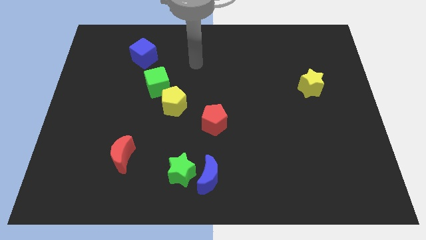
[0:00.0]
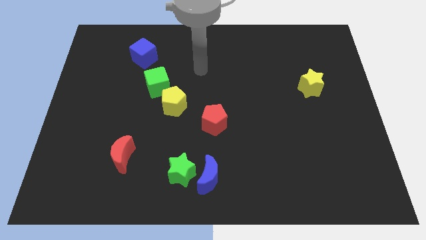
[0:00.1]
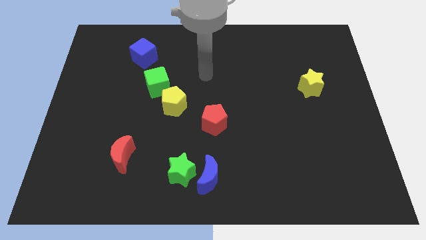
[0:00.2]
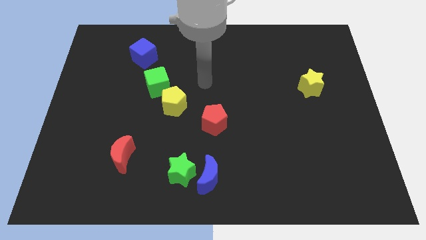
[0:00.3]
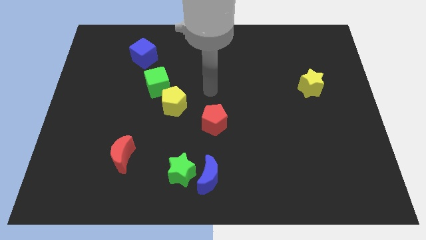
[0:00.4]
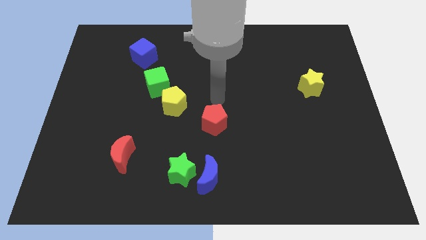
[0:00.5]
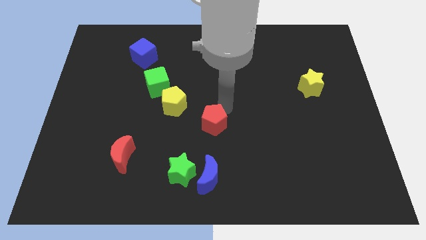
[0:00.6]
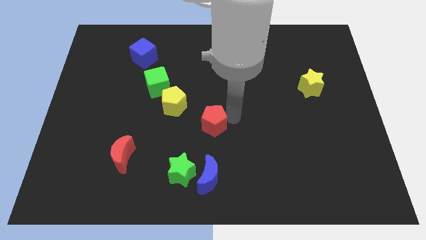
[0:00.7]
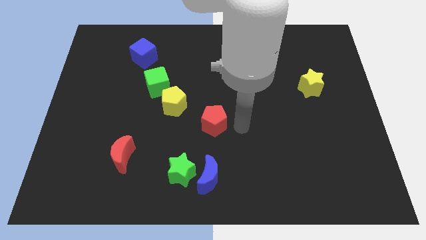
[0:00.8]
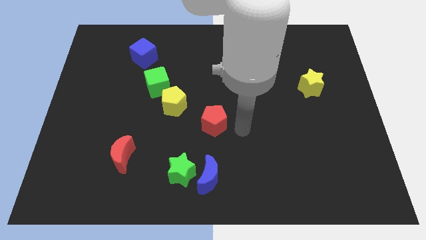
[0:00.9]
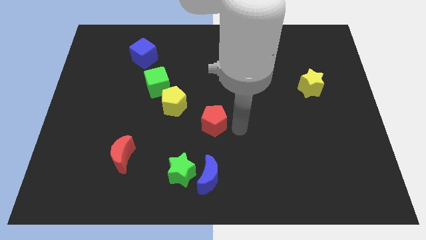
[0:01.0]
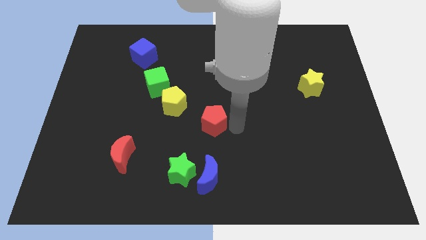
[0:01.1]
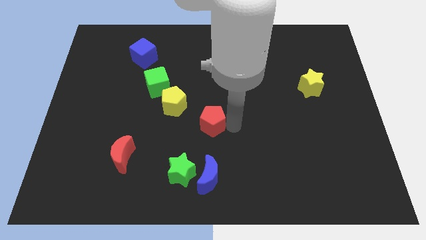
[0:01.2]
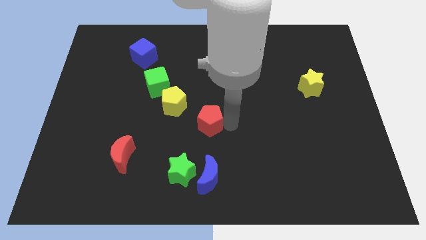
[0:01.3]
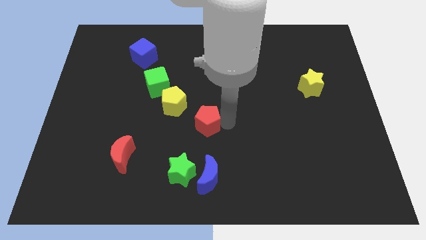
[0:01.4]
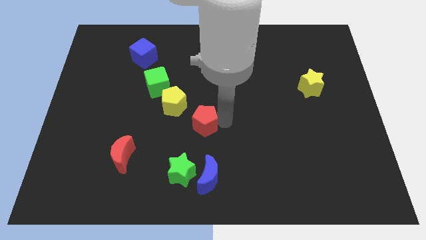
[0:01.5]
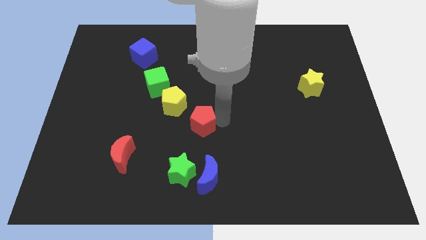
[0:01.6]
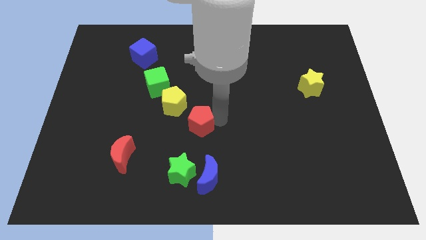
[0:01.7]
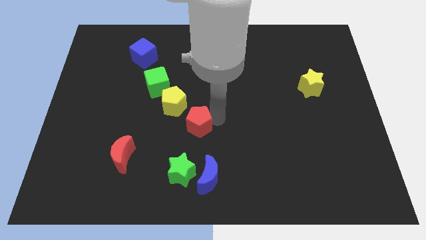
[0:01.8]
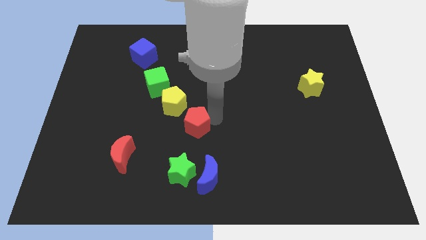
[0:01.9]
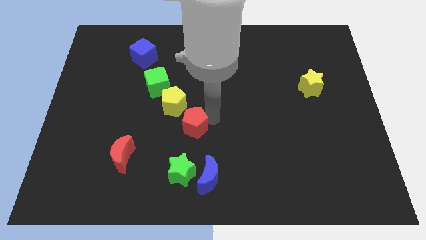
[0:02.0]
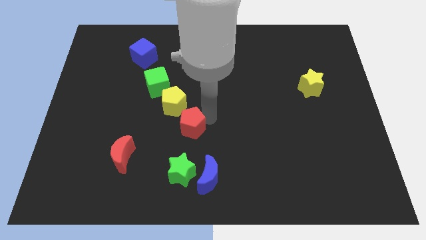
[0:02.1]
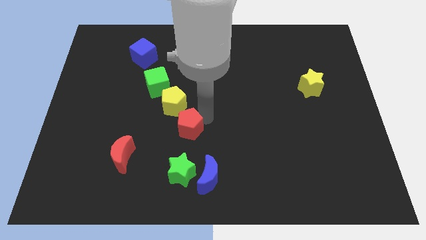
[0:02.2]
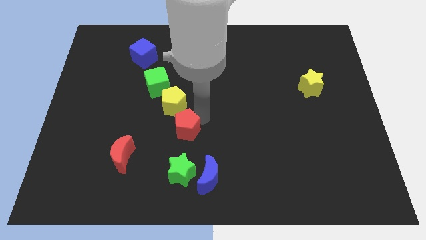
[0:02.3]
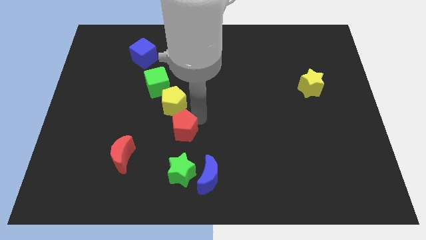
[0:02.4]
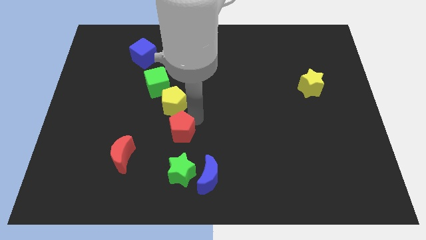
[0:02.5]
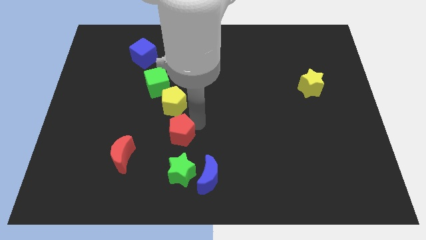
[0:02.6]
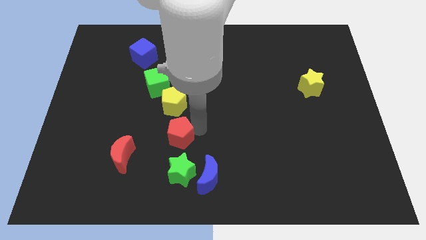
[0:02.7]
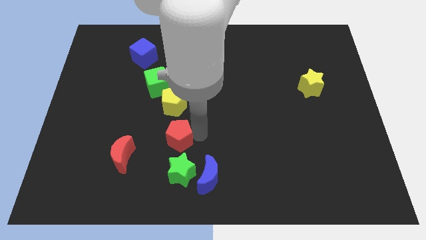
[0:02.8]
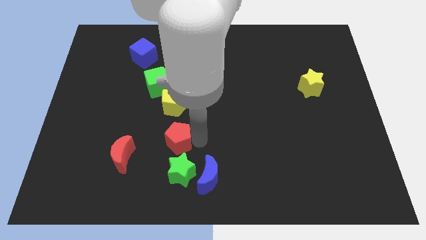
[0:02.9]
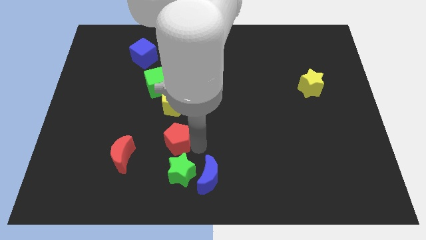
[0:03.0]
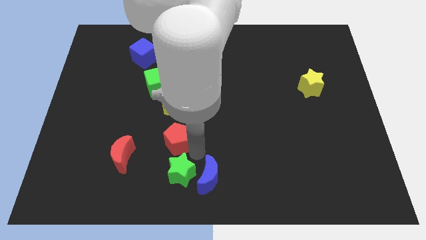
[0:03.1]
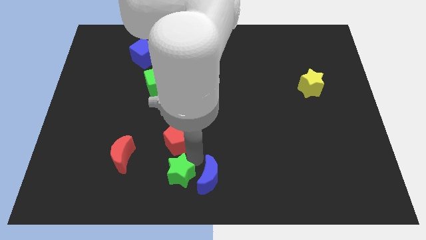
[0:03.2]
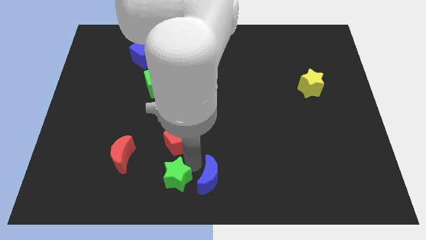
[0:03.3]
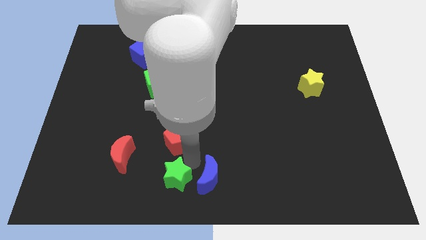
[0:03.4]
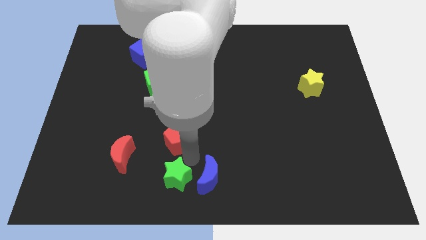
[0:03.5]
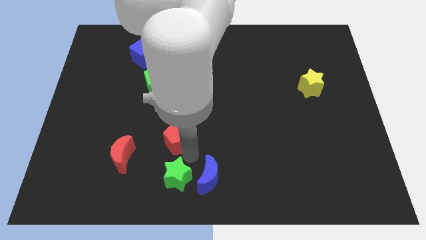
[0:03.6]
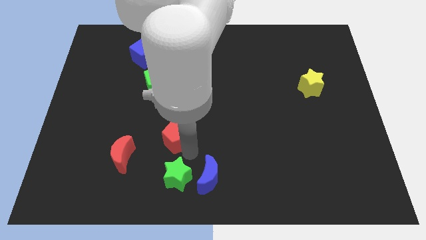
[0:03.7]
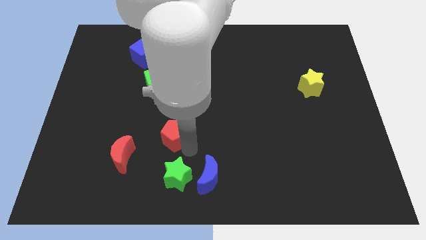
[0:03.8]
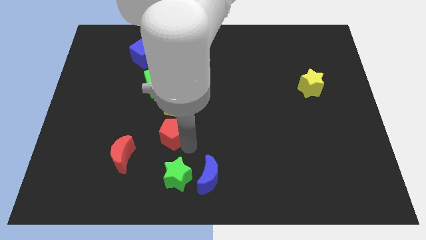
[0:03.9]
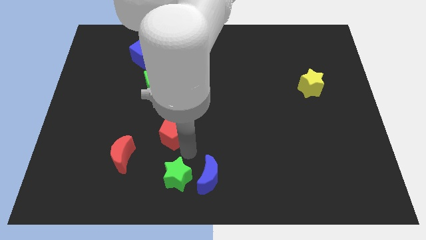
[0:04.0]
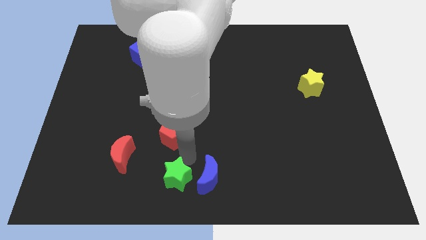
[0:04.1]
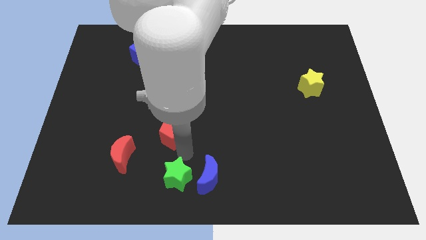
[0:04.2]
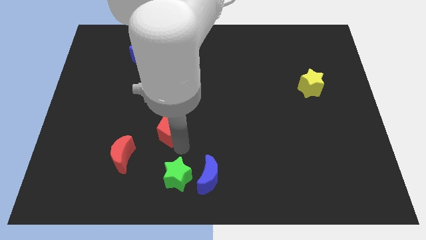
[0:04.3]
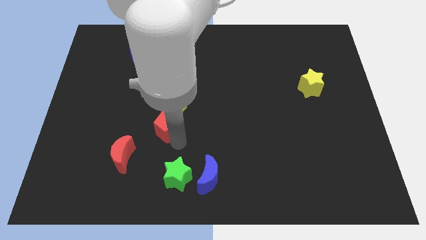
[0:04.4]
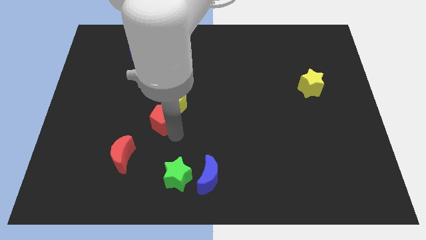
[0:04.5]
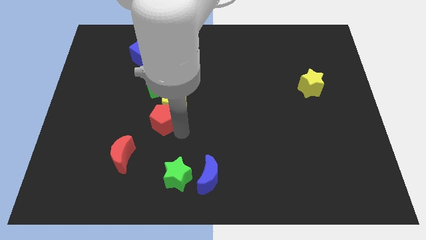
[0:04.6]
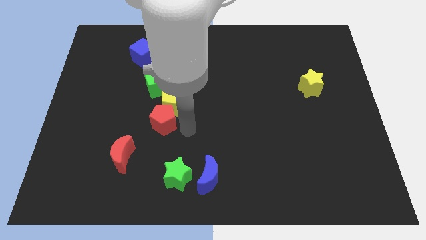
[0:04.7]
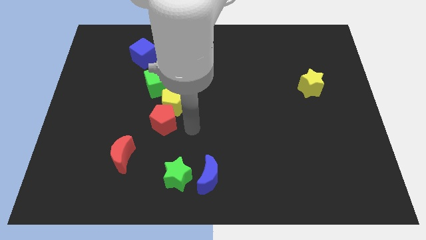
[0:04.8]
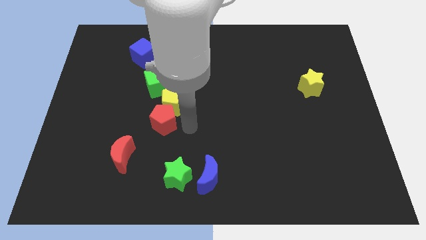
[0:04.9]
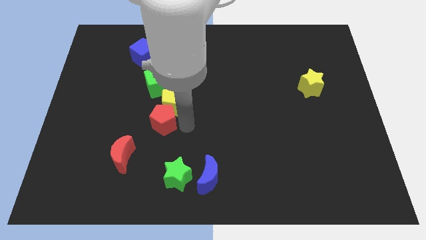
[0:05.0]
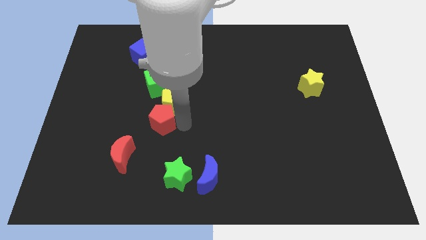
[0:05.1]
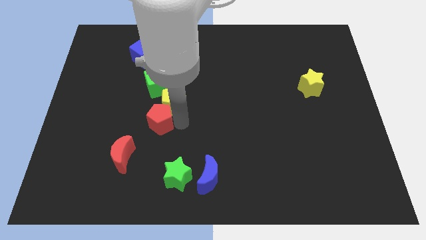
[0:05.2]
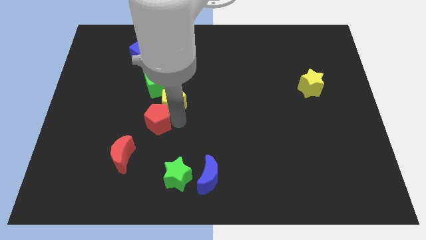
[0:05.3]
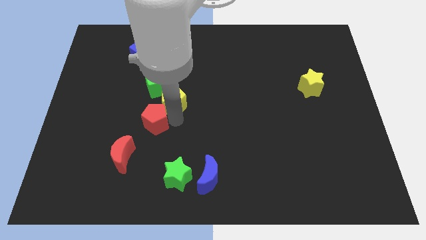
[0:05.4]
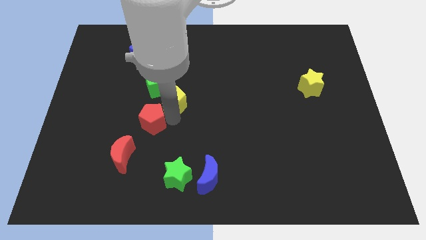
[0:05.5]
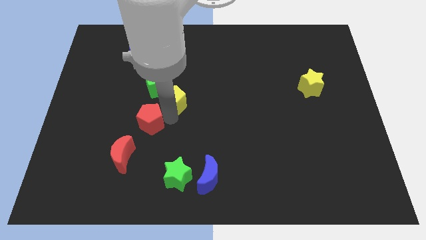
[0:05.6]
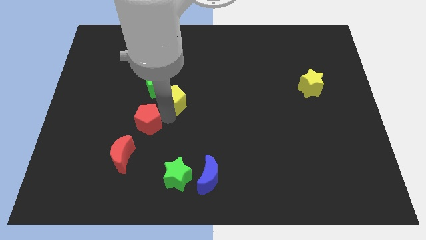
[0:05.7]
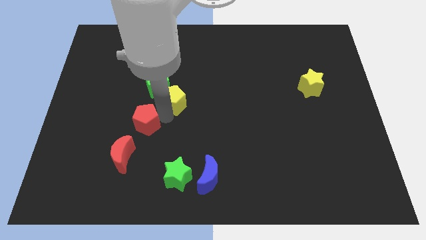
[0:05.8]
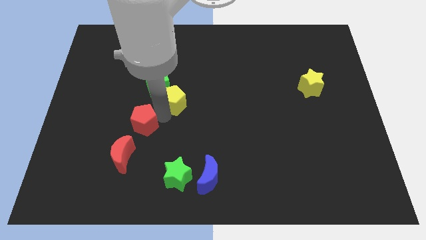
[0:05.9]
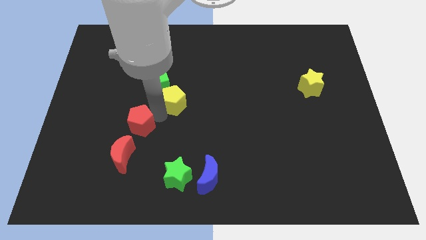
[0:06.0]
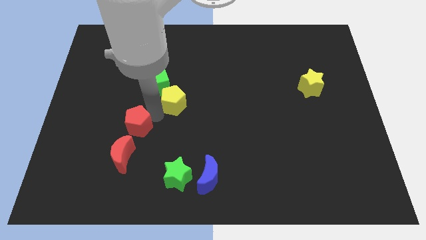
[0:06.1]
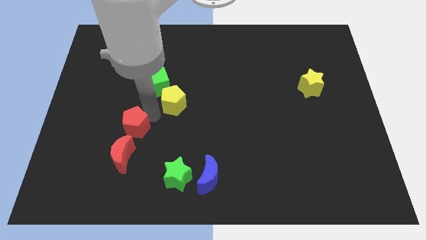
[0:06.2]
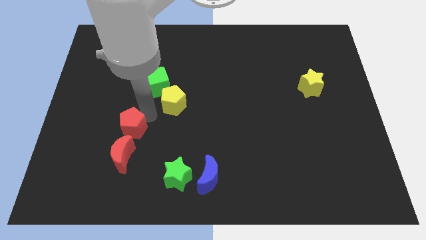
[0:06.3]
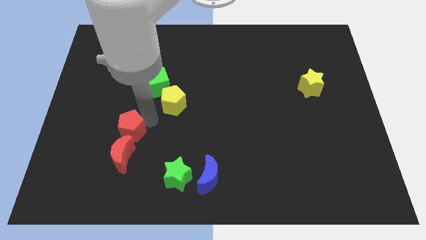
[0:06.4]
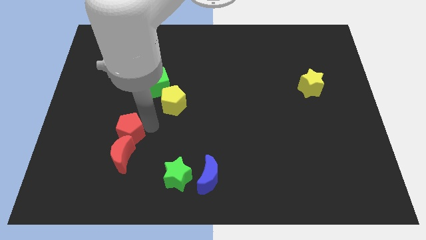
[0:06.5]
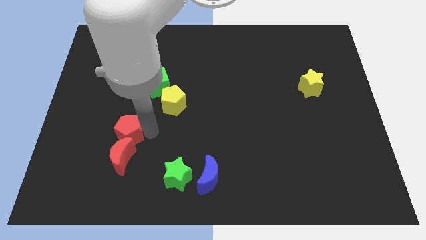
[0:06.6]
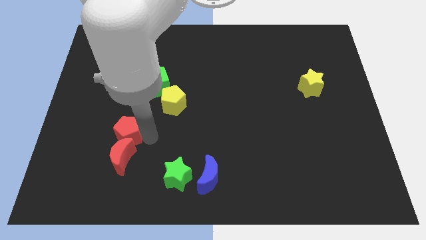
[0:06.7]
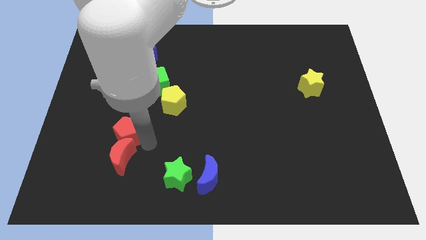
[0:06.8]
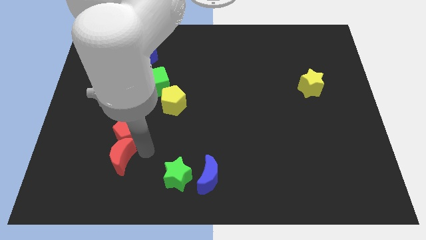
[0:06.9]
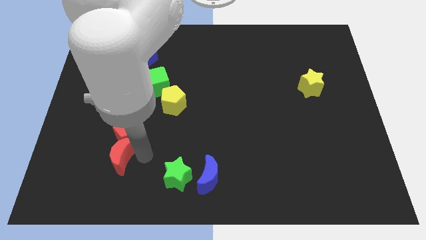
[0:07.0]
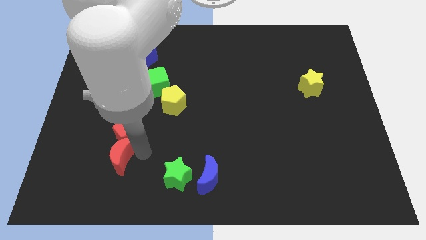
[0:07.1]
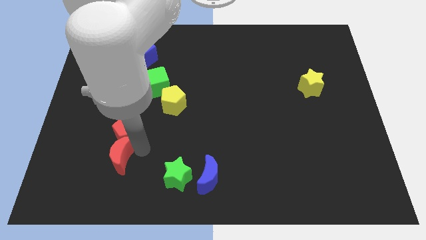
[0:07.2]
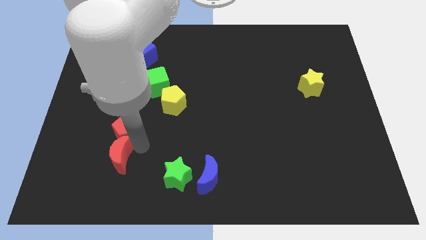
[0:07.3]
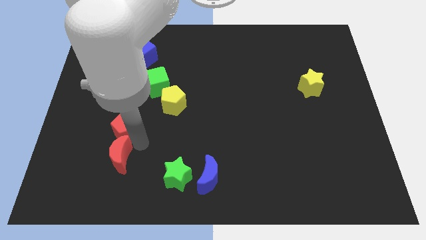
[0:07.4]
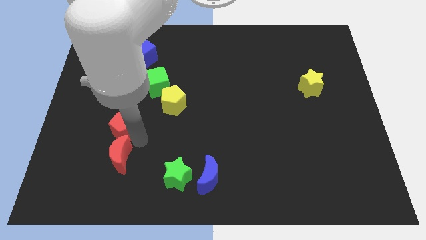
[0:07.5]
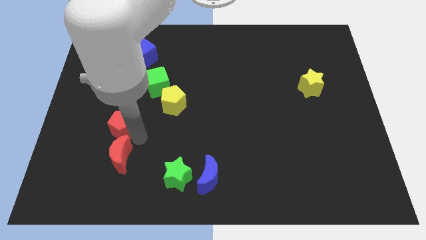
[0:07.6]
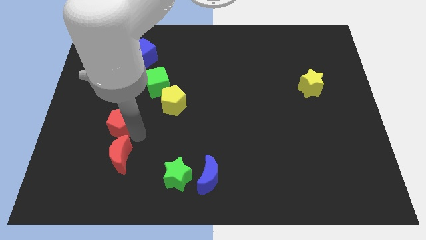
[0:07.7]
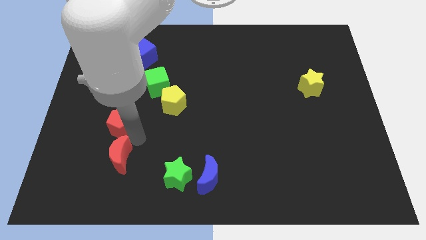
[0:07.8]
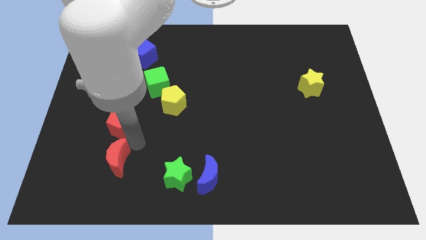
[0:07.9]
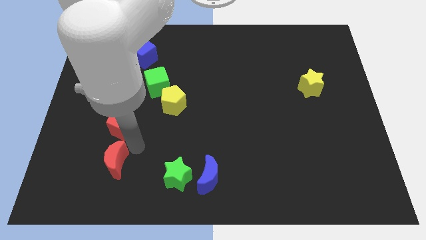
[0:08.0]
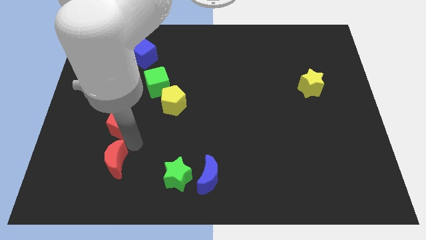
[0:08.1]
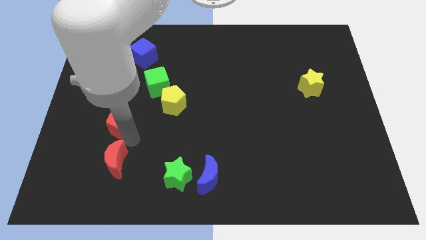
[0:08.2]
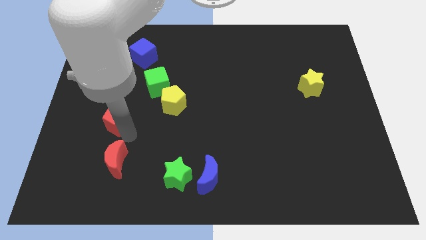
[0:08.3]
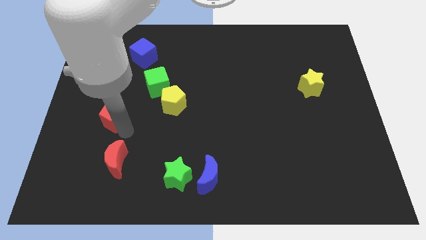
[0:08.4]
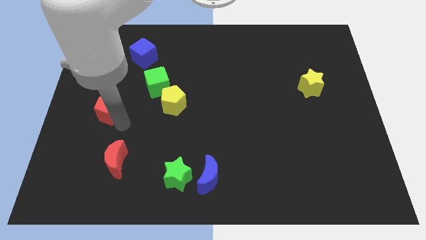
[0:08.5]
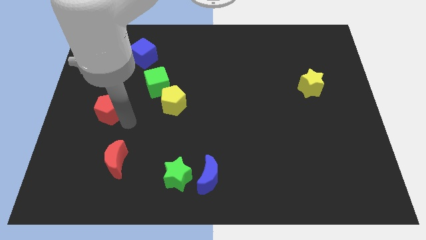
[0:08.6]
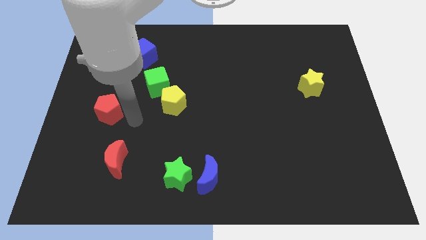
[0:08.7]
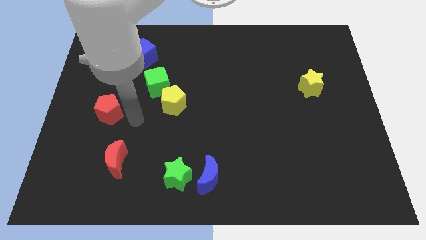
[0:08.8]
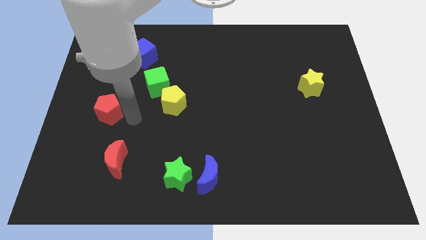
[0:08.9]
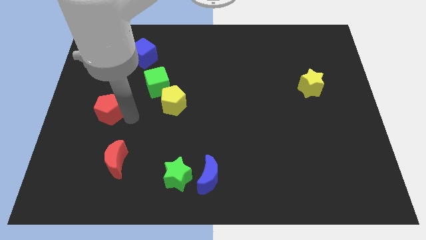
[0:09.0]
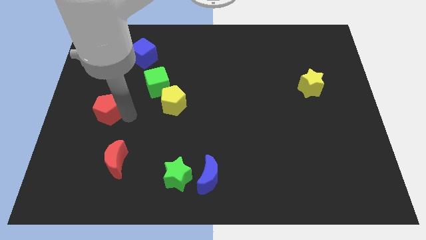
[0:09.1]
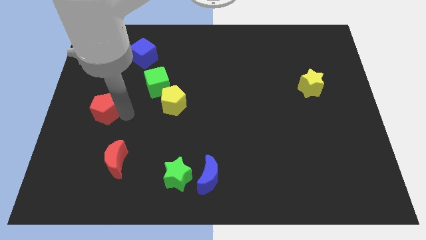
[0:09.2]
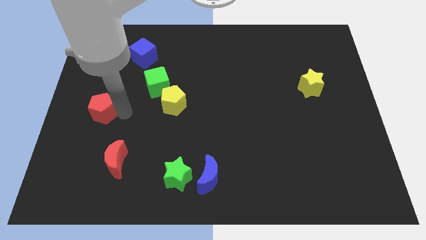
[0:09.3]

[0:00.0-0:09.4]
slide the red pentagon to the left side
